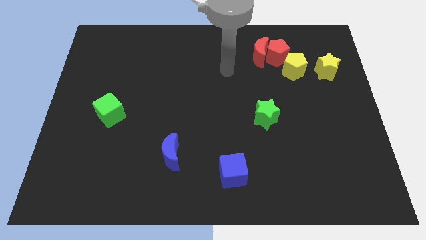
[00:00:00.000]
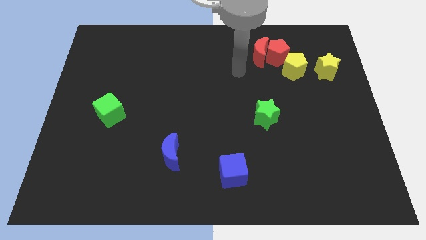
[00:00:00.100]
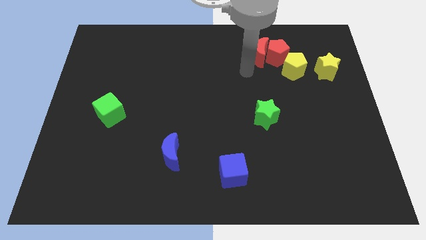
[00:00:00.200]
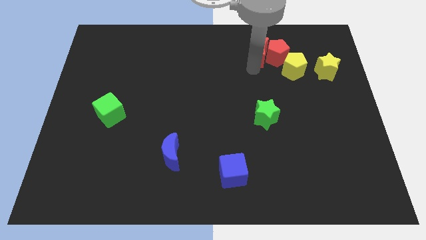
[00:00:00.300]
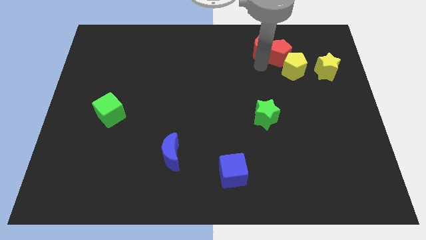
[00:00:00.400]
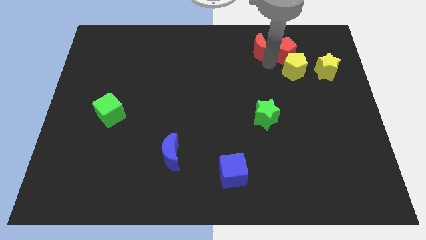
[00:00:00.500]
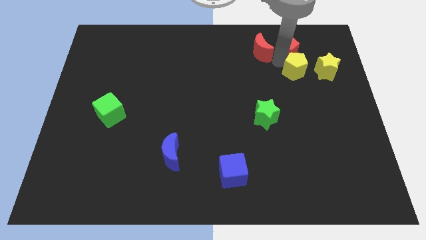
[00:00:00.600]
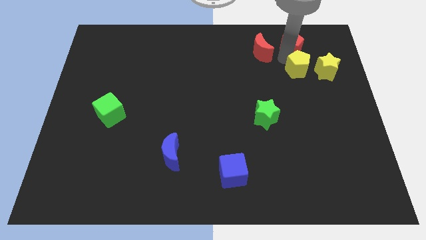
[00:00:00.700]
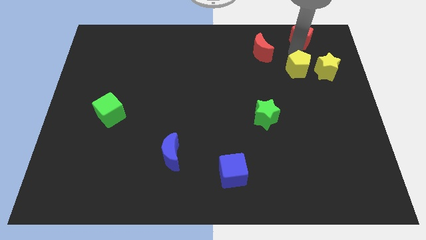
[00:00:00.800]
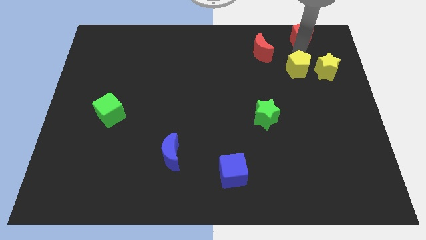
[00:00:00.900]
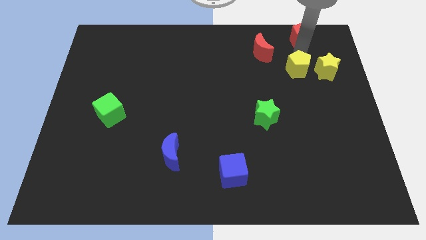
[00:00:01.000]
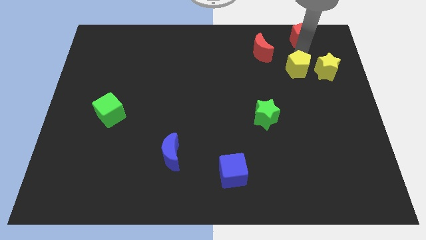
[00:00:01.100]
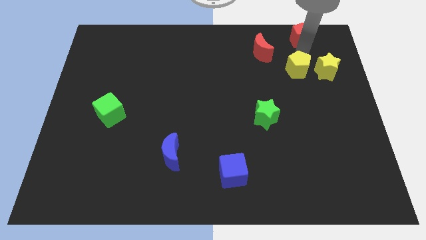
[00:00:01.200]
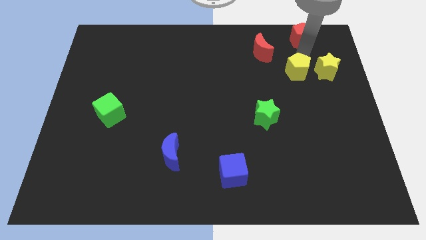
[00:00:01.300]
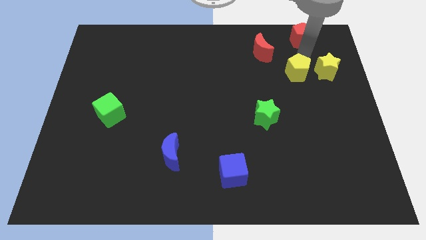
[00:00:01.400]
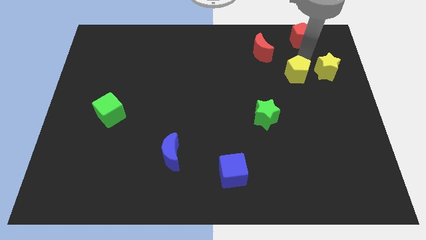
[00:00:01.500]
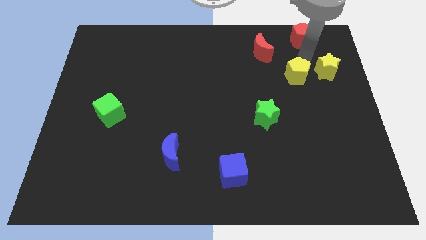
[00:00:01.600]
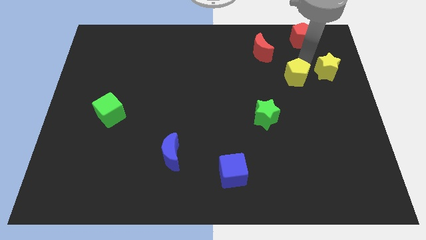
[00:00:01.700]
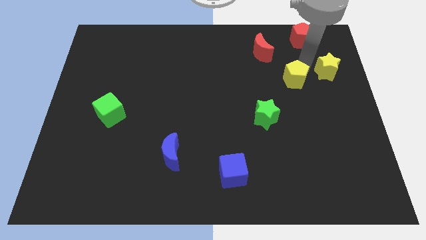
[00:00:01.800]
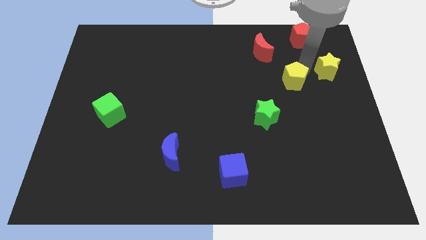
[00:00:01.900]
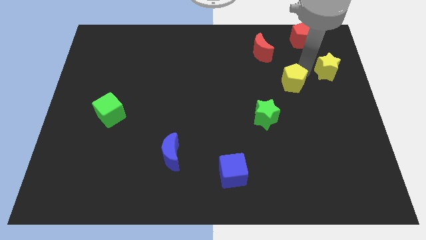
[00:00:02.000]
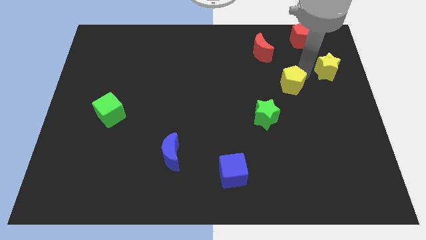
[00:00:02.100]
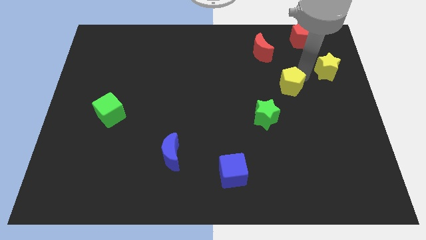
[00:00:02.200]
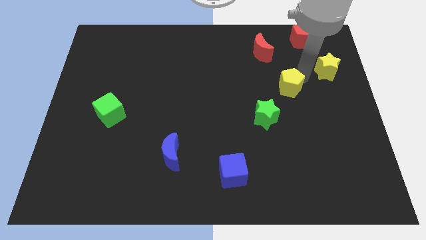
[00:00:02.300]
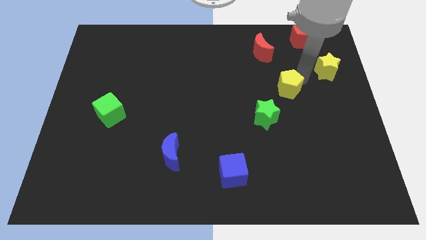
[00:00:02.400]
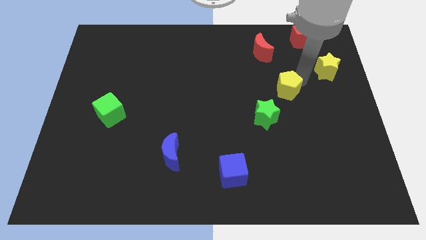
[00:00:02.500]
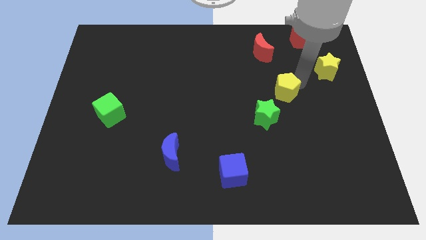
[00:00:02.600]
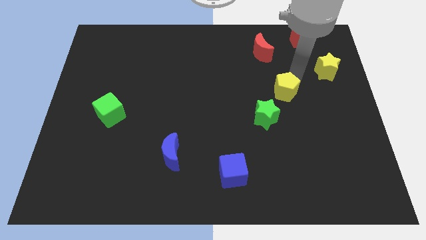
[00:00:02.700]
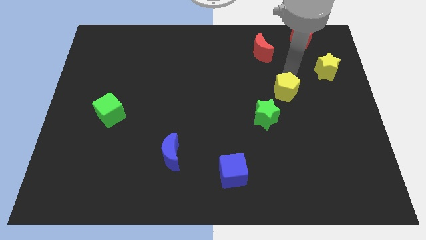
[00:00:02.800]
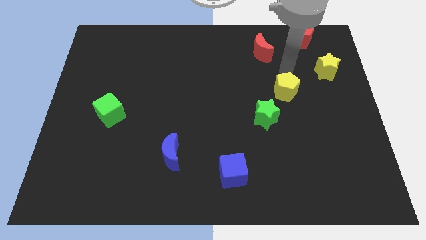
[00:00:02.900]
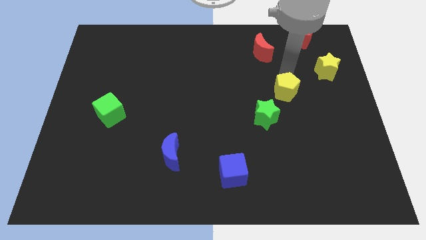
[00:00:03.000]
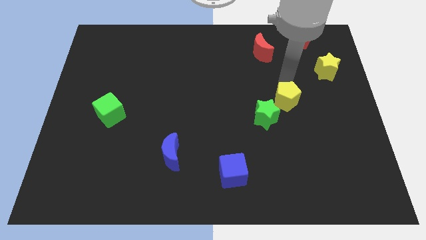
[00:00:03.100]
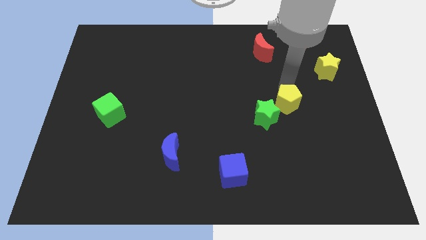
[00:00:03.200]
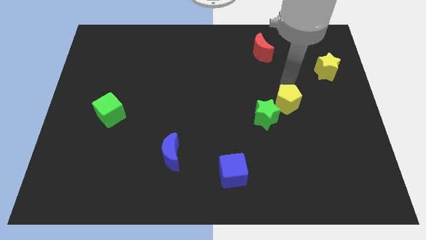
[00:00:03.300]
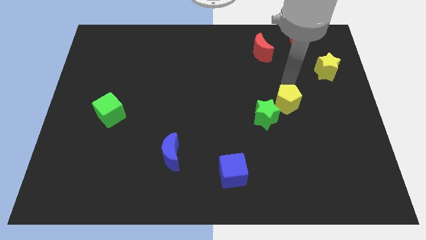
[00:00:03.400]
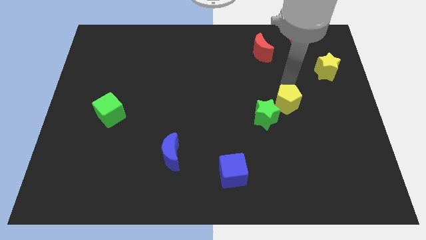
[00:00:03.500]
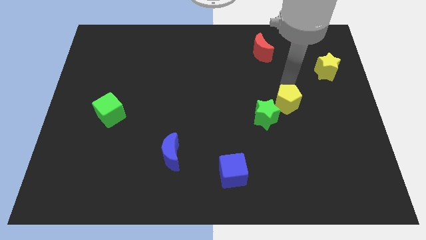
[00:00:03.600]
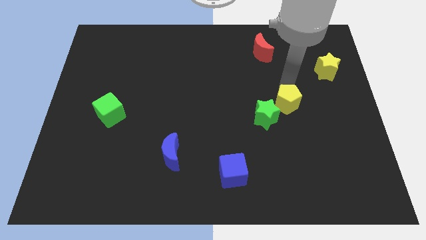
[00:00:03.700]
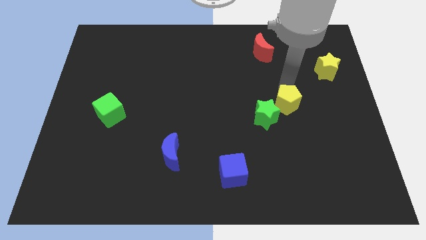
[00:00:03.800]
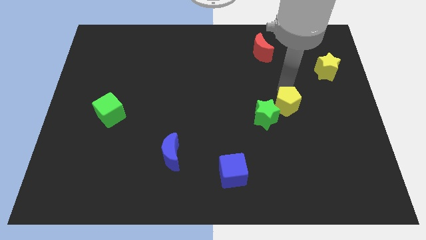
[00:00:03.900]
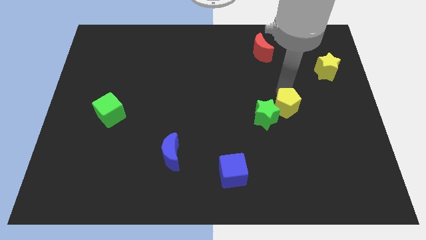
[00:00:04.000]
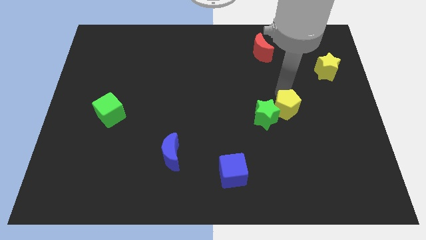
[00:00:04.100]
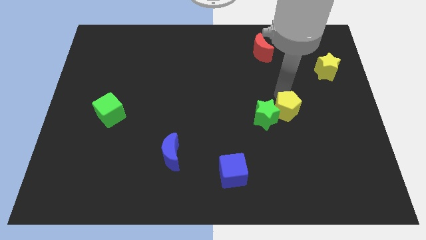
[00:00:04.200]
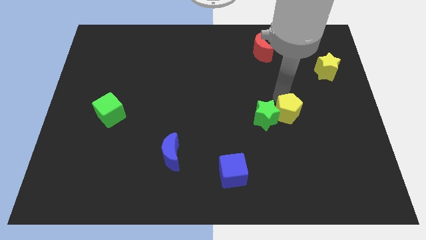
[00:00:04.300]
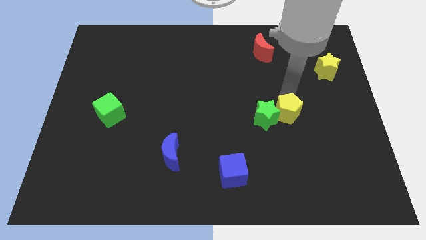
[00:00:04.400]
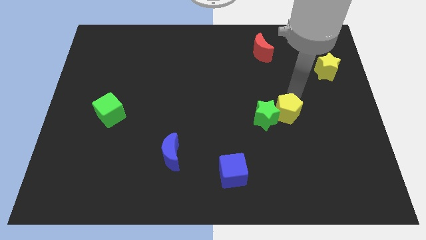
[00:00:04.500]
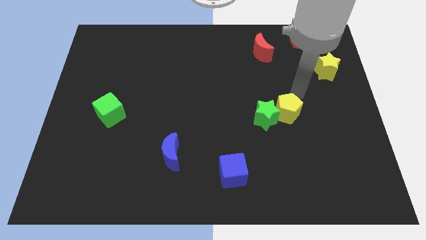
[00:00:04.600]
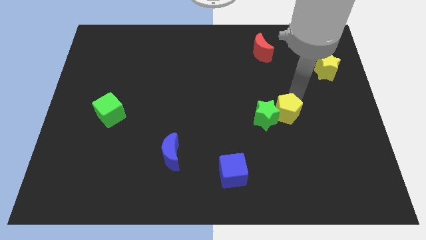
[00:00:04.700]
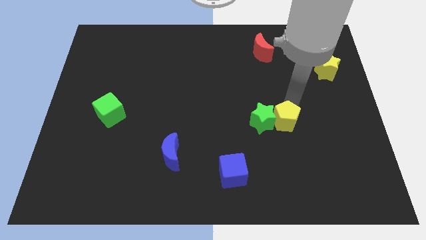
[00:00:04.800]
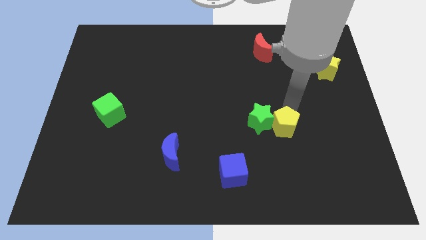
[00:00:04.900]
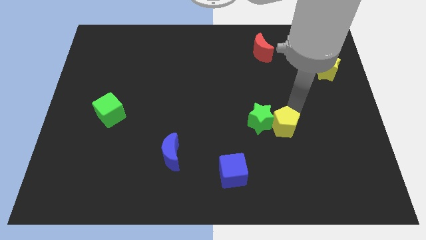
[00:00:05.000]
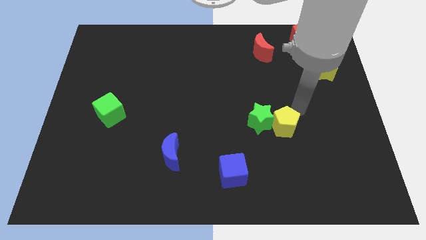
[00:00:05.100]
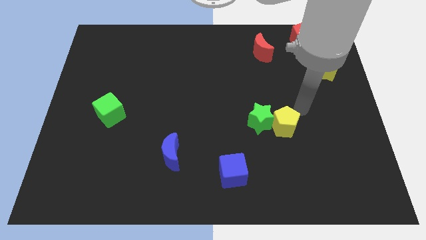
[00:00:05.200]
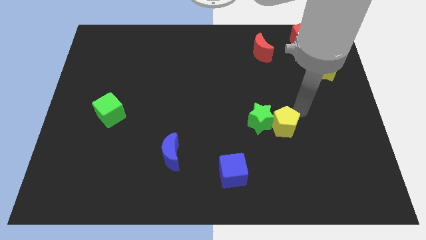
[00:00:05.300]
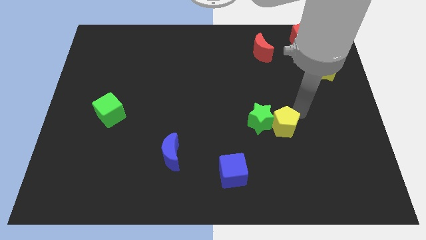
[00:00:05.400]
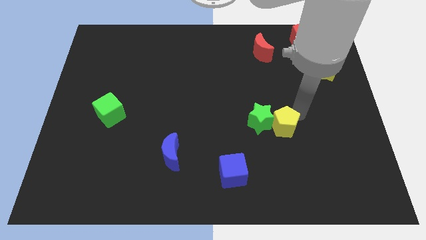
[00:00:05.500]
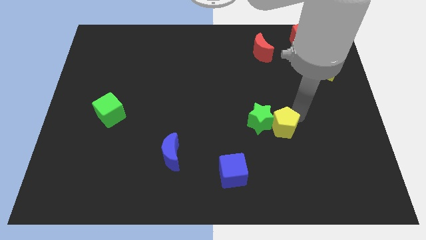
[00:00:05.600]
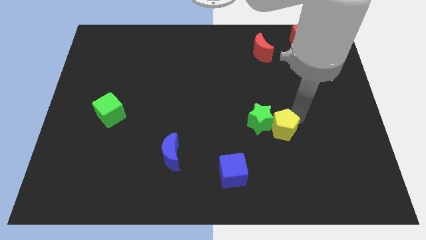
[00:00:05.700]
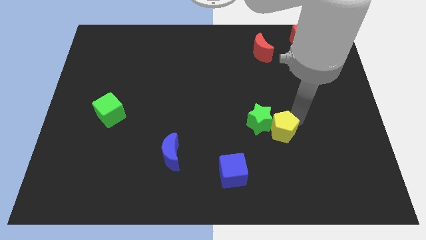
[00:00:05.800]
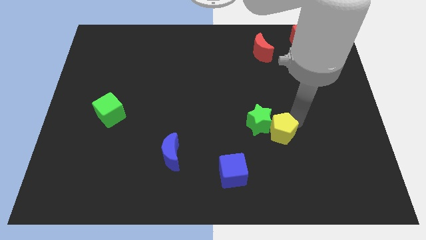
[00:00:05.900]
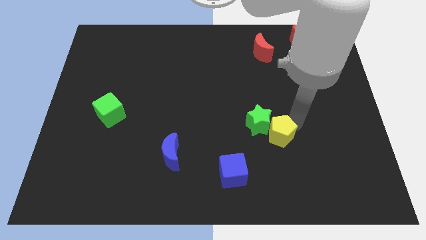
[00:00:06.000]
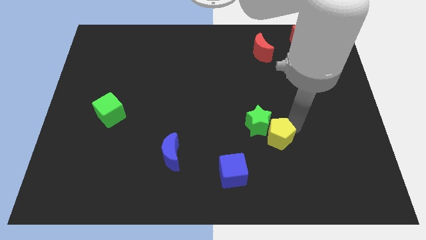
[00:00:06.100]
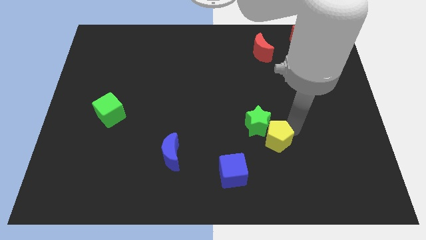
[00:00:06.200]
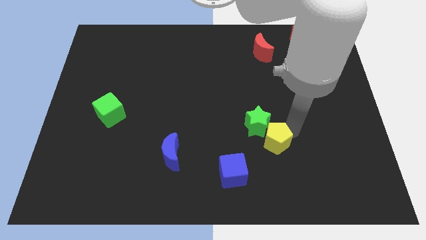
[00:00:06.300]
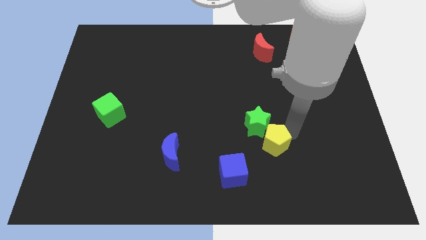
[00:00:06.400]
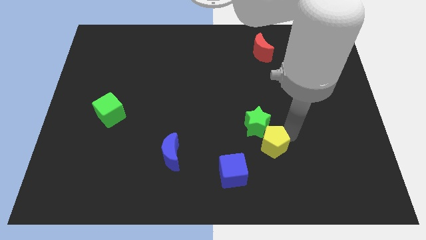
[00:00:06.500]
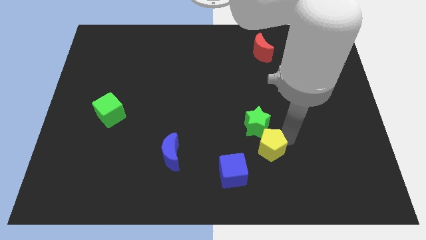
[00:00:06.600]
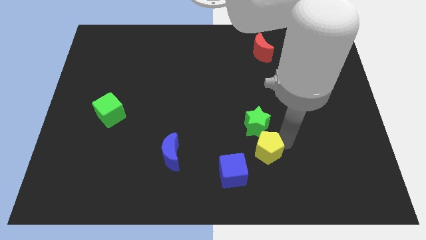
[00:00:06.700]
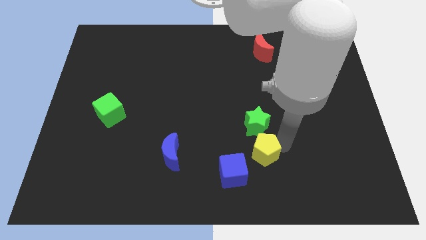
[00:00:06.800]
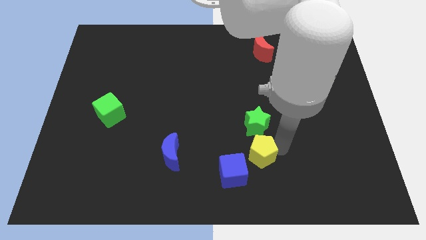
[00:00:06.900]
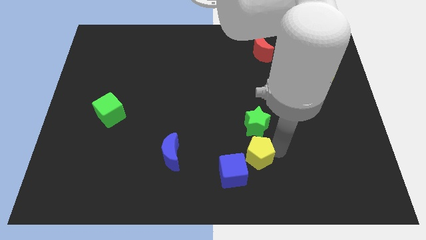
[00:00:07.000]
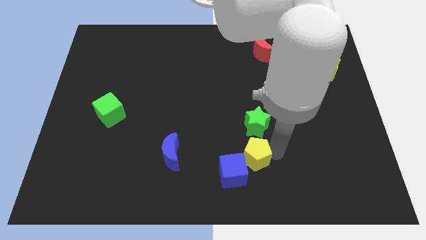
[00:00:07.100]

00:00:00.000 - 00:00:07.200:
push the yellow pentagon close to the blue cube
